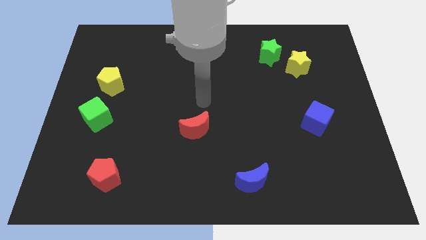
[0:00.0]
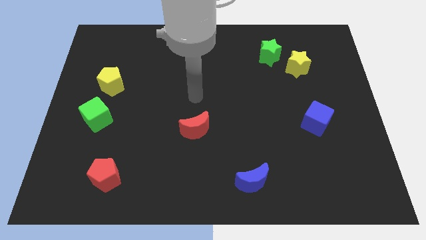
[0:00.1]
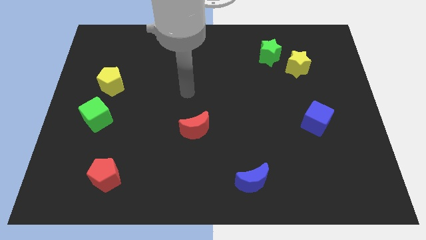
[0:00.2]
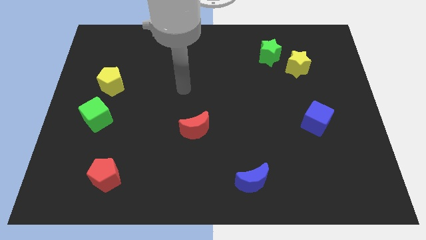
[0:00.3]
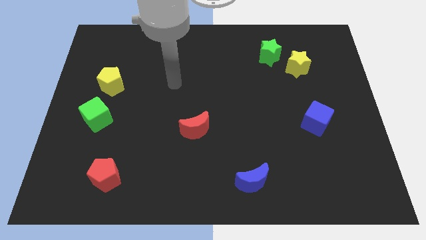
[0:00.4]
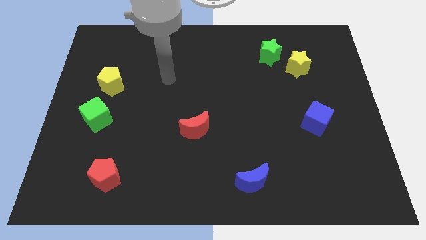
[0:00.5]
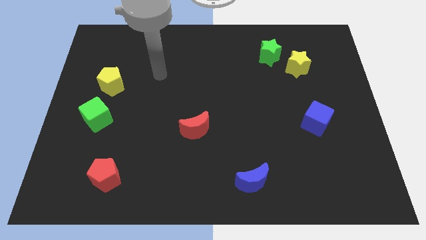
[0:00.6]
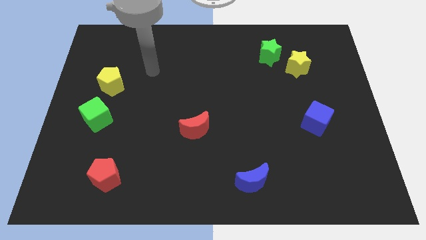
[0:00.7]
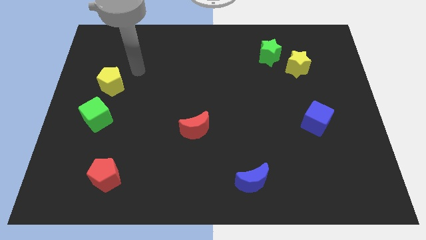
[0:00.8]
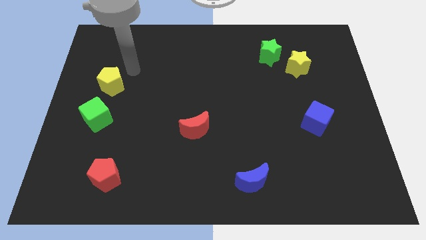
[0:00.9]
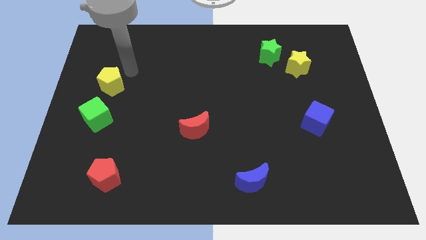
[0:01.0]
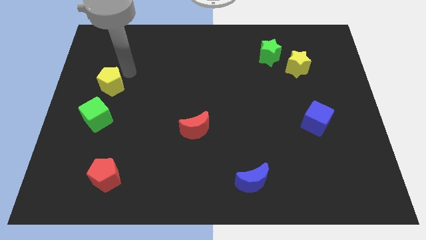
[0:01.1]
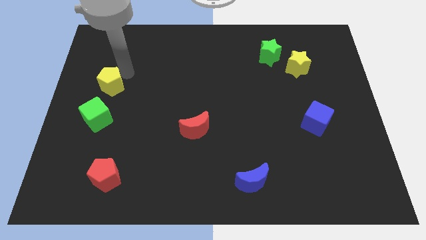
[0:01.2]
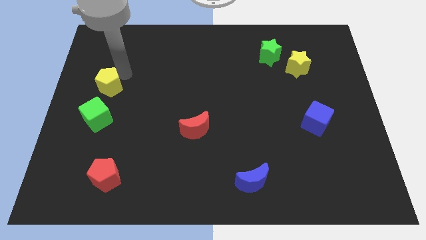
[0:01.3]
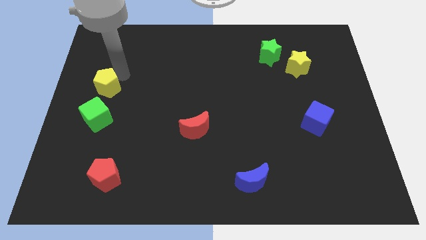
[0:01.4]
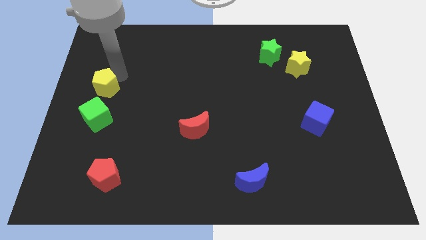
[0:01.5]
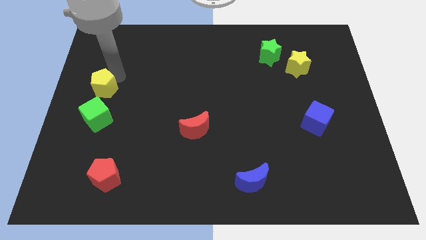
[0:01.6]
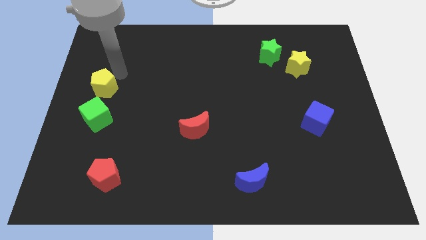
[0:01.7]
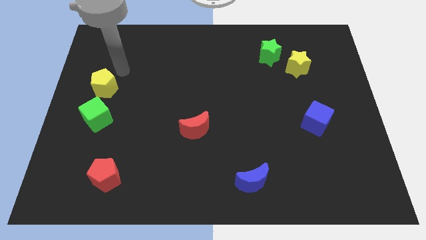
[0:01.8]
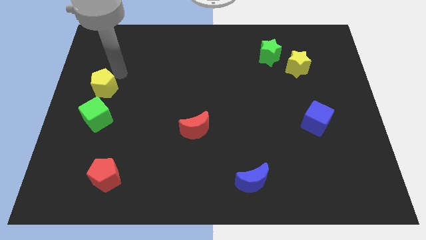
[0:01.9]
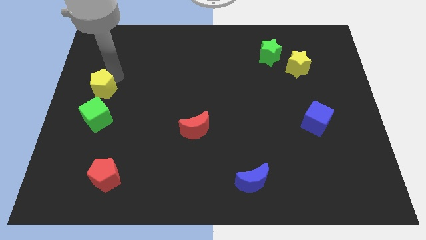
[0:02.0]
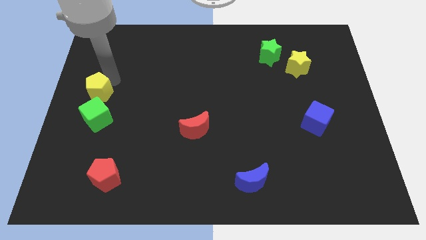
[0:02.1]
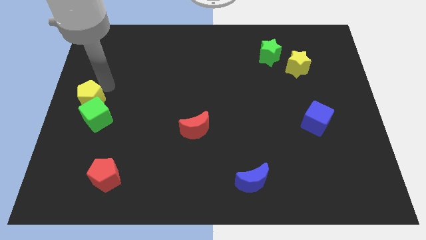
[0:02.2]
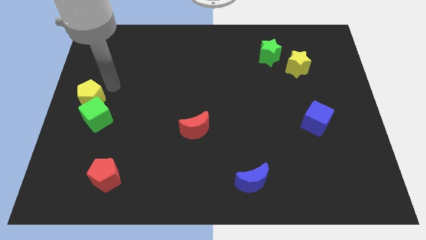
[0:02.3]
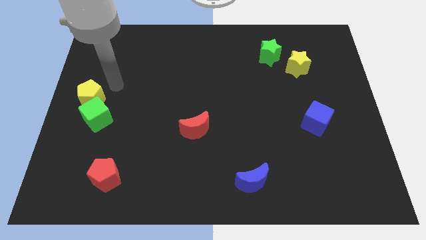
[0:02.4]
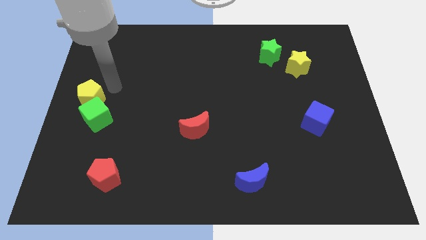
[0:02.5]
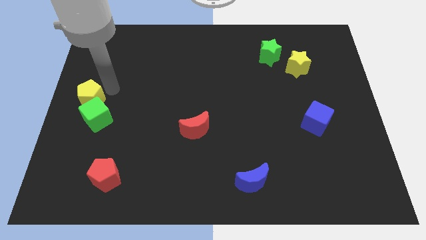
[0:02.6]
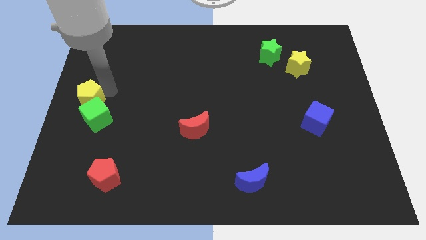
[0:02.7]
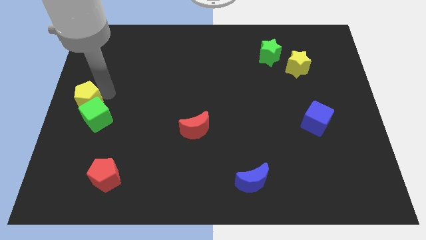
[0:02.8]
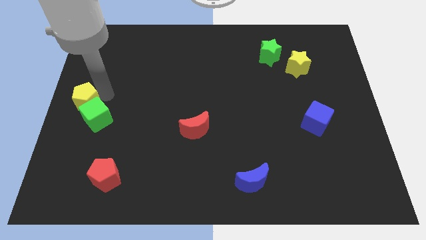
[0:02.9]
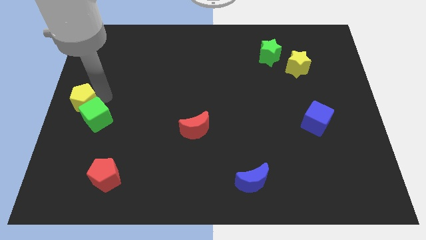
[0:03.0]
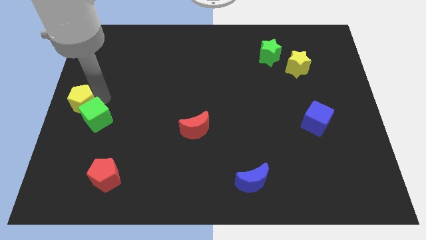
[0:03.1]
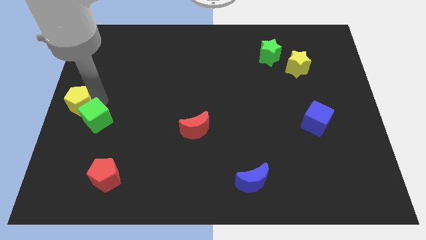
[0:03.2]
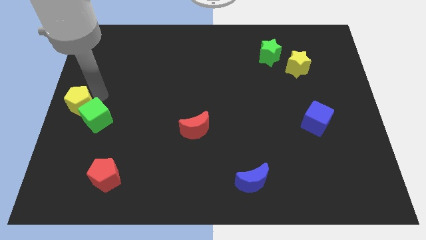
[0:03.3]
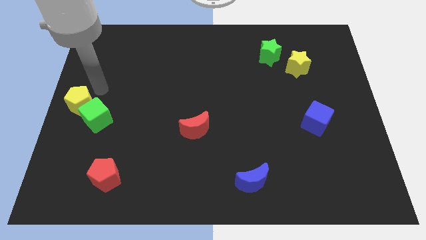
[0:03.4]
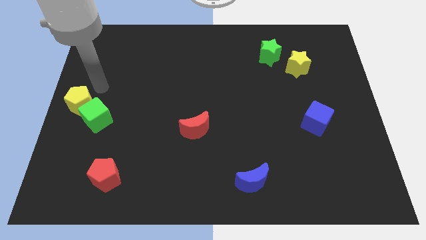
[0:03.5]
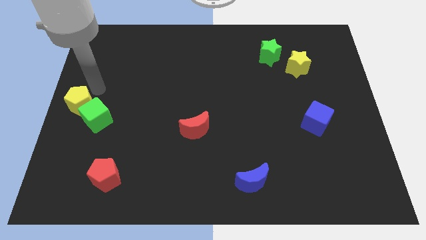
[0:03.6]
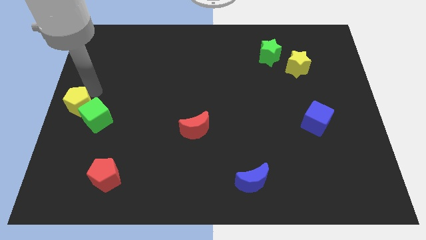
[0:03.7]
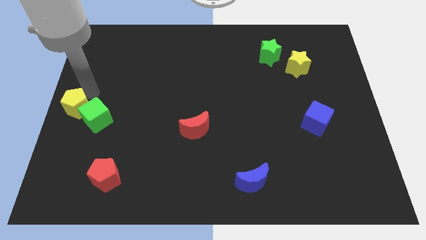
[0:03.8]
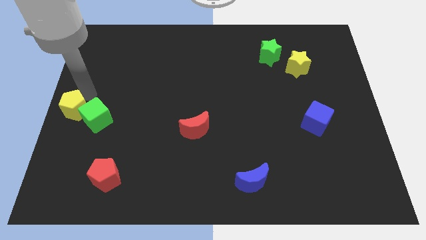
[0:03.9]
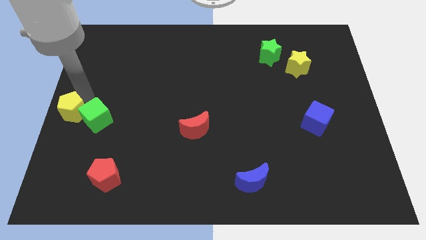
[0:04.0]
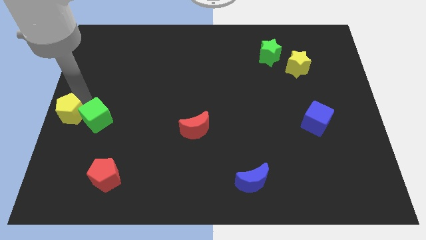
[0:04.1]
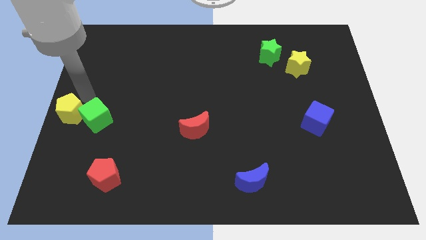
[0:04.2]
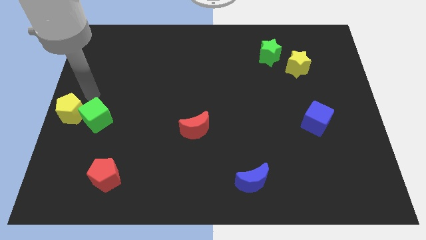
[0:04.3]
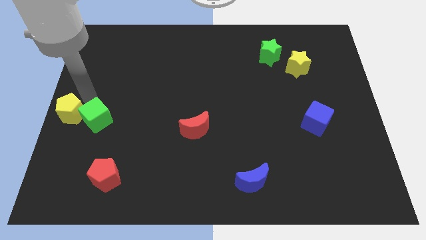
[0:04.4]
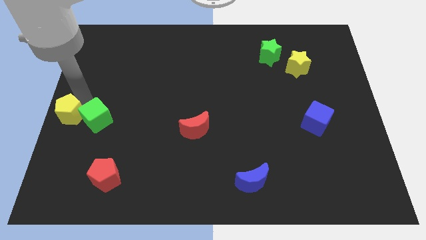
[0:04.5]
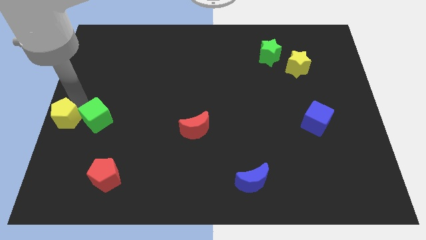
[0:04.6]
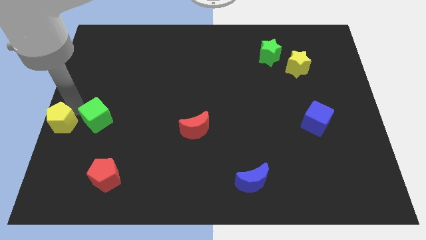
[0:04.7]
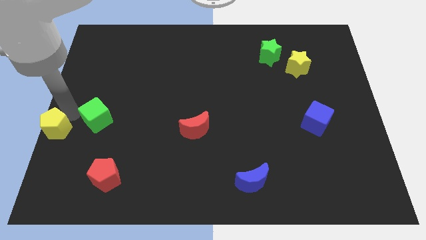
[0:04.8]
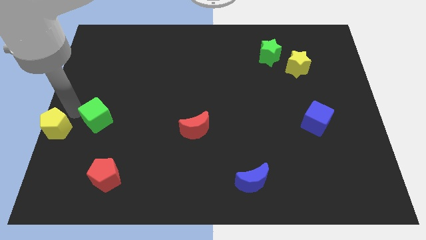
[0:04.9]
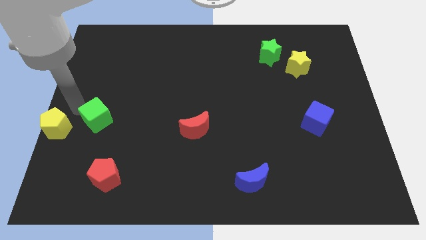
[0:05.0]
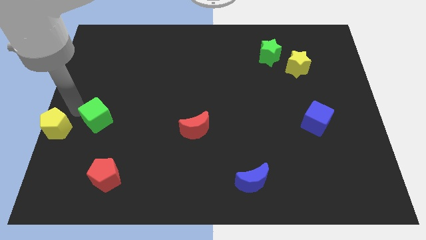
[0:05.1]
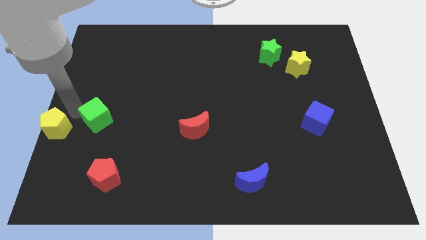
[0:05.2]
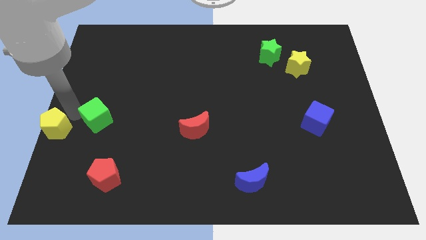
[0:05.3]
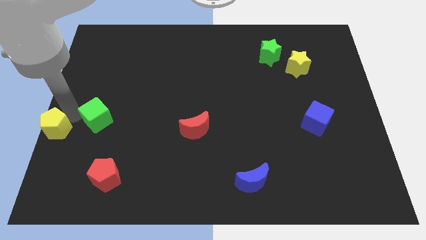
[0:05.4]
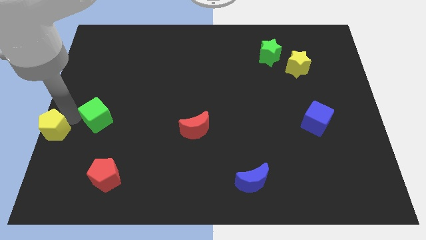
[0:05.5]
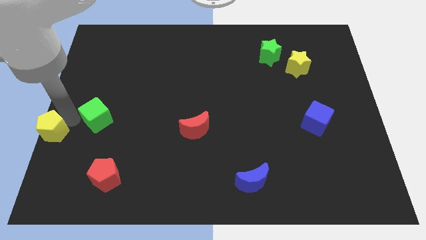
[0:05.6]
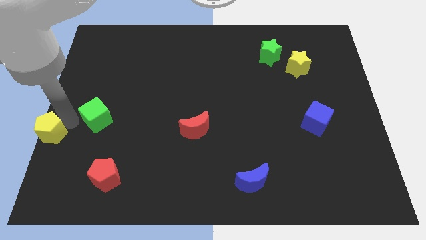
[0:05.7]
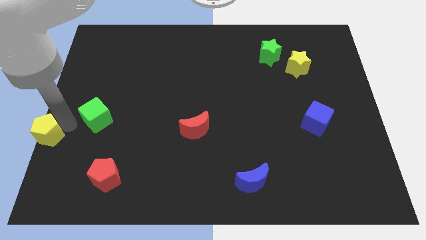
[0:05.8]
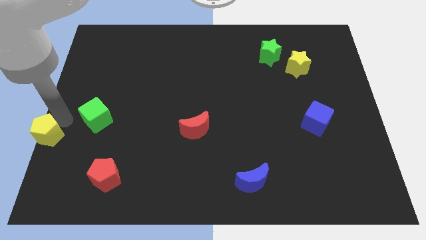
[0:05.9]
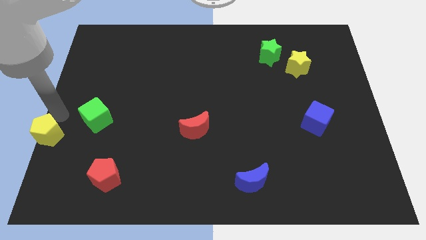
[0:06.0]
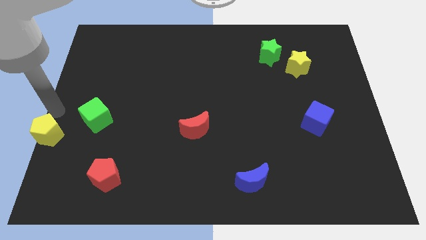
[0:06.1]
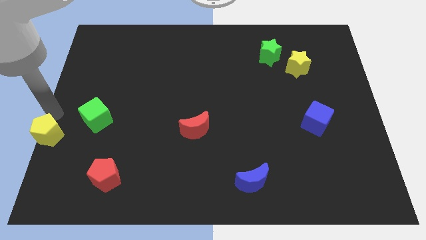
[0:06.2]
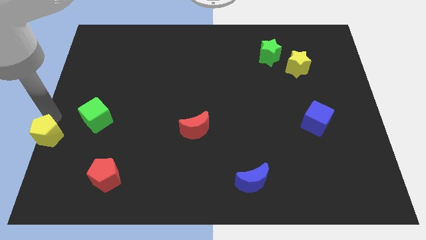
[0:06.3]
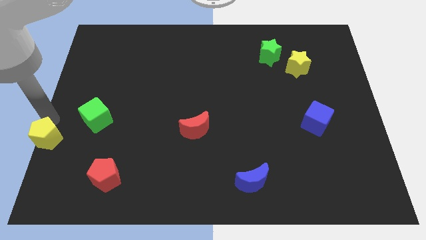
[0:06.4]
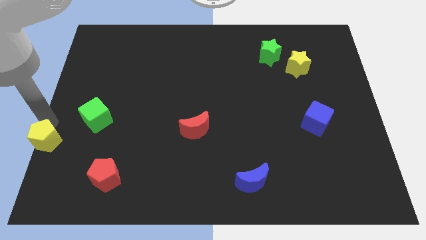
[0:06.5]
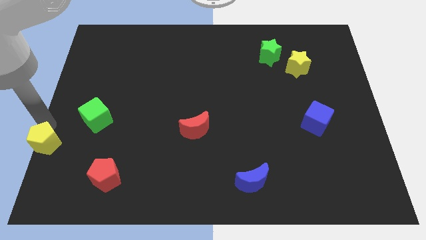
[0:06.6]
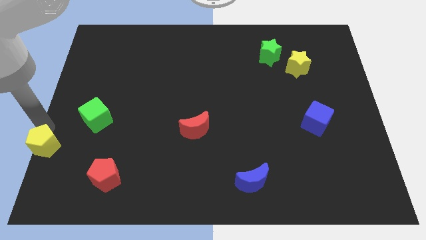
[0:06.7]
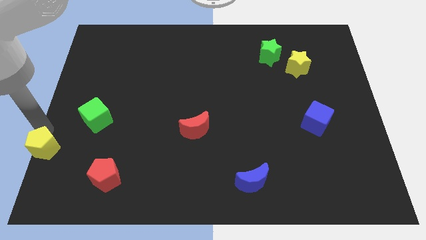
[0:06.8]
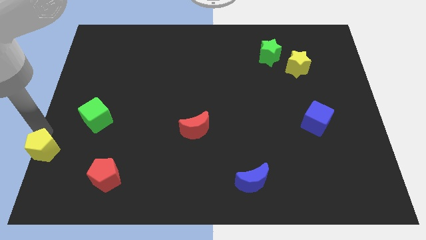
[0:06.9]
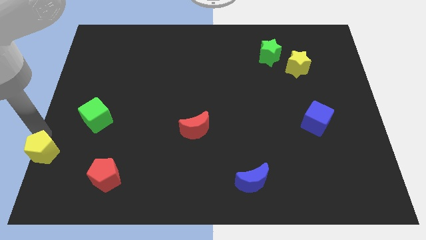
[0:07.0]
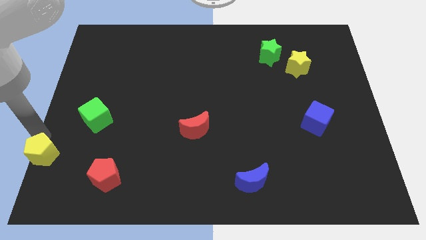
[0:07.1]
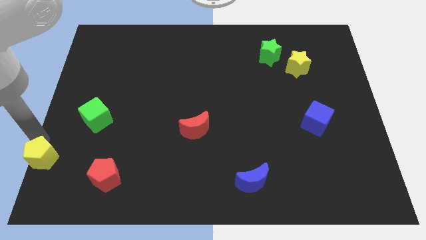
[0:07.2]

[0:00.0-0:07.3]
move the yellow pentagon to the bottom left corner
